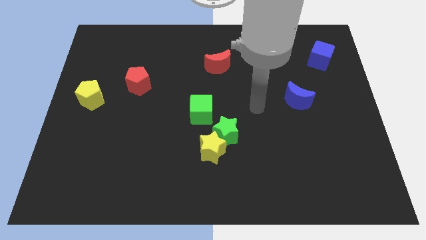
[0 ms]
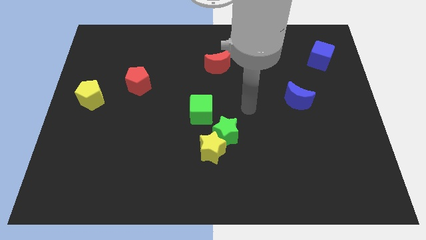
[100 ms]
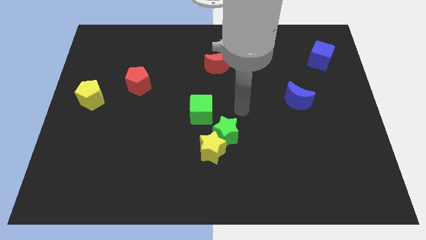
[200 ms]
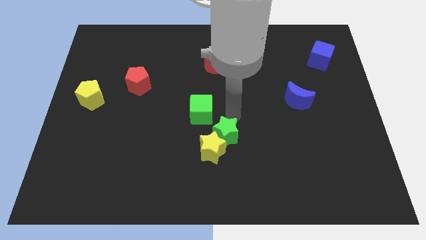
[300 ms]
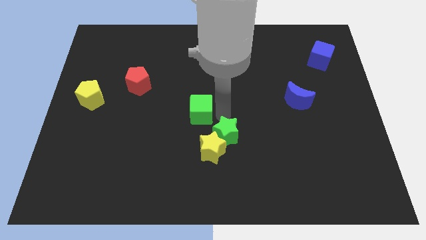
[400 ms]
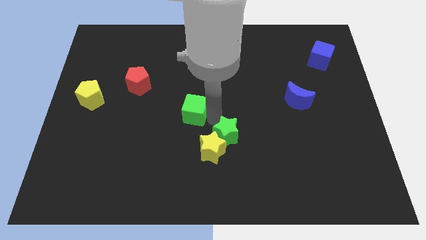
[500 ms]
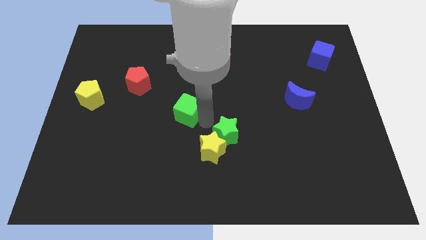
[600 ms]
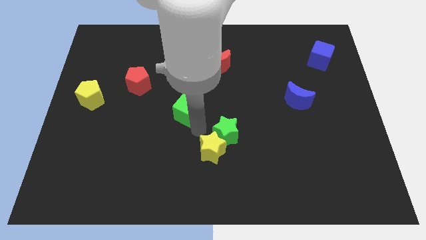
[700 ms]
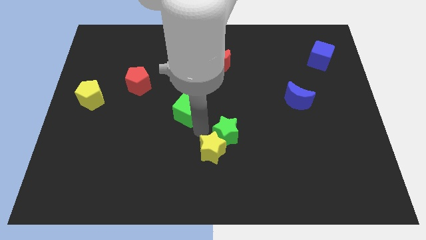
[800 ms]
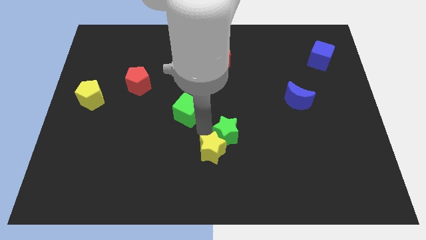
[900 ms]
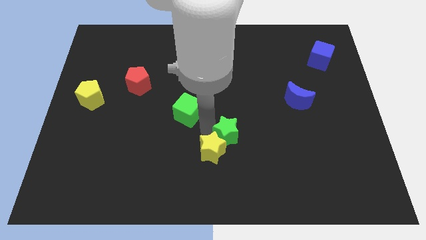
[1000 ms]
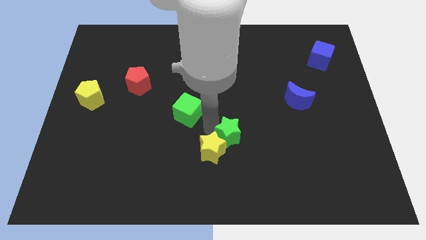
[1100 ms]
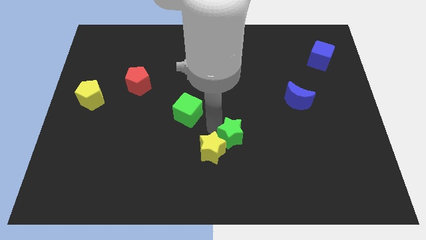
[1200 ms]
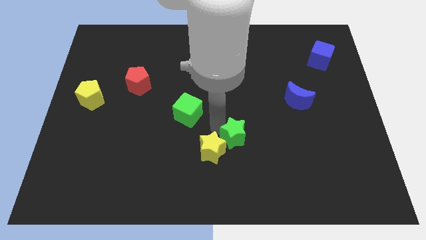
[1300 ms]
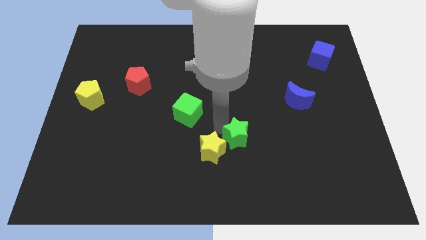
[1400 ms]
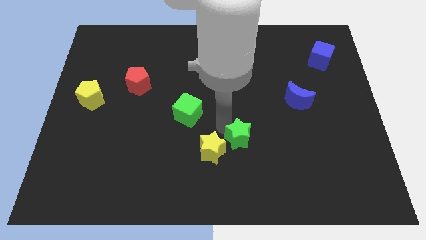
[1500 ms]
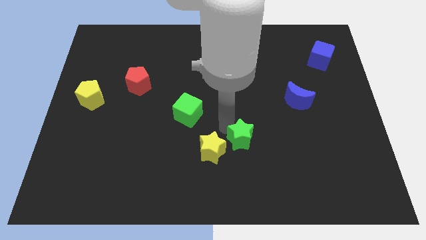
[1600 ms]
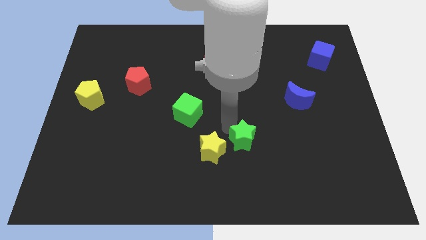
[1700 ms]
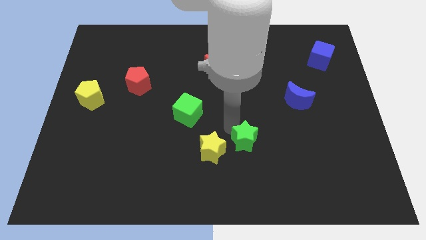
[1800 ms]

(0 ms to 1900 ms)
move the green star away from the yellow star and green cube

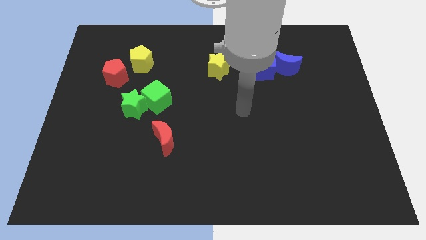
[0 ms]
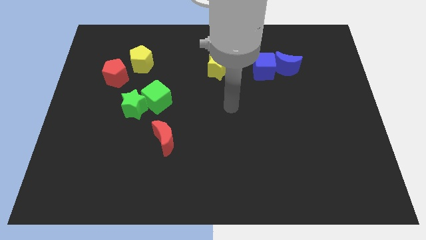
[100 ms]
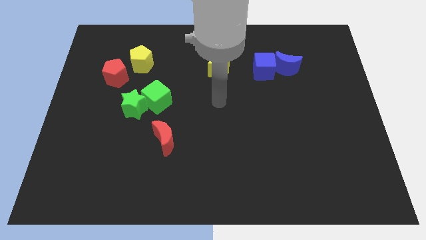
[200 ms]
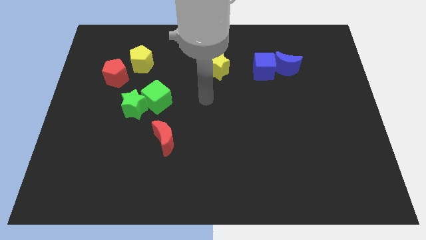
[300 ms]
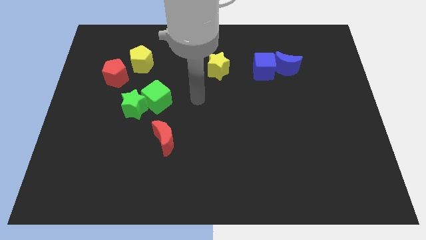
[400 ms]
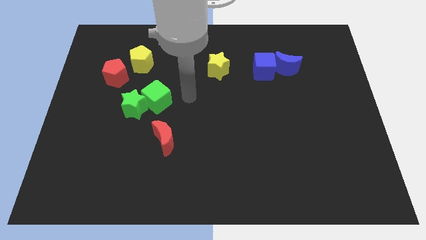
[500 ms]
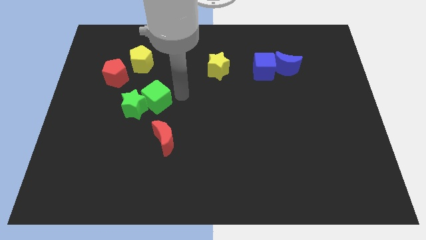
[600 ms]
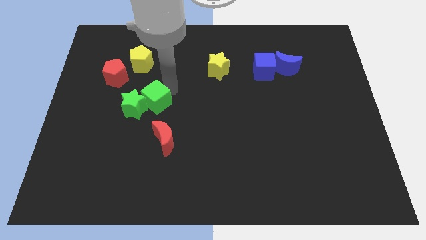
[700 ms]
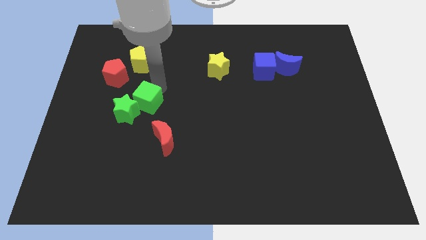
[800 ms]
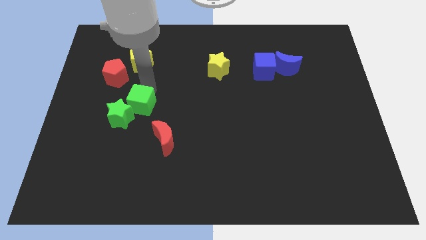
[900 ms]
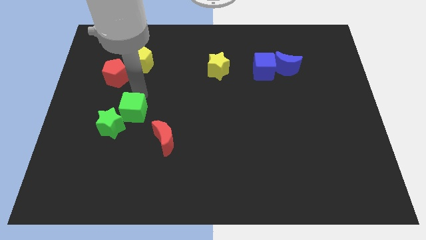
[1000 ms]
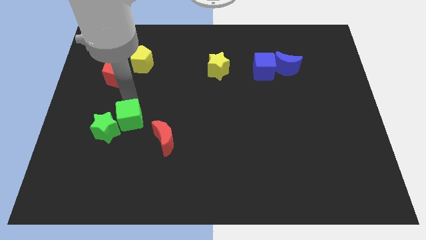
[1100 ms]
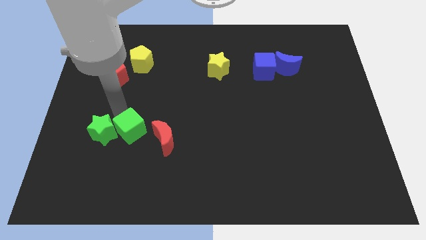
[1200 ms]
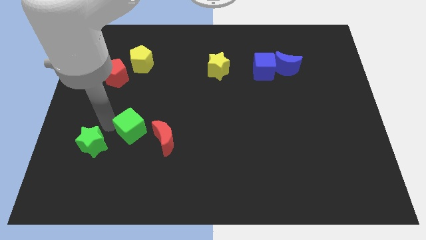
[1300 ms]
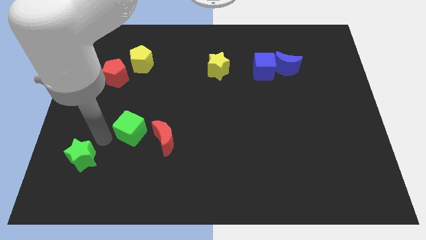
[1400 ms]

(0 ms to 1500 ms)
pull the green cube apart from the green star

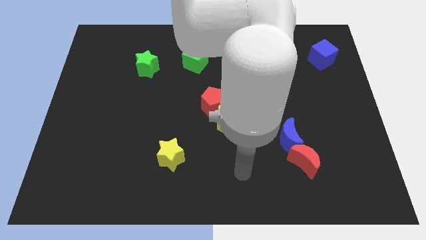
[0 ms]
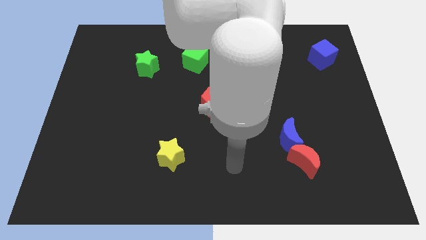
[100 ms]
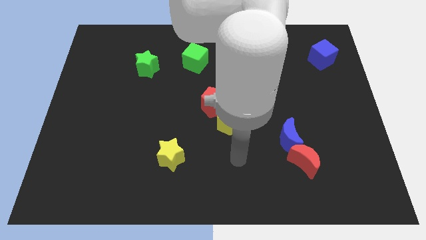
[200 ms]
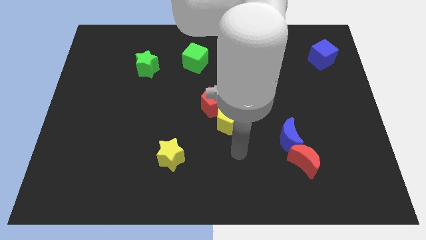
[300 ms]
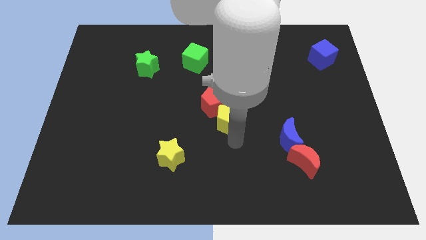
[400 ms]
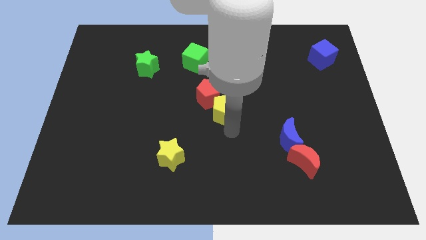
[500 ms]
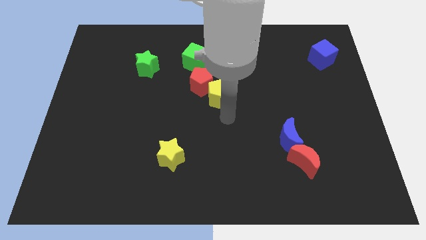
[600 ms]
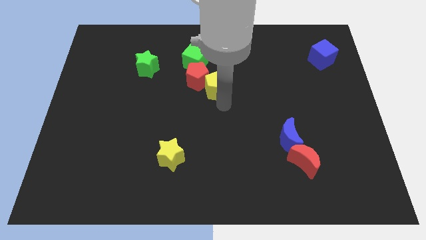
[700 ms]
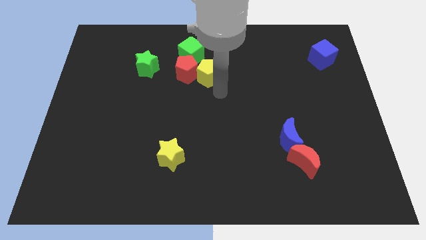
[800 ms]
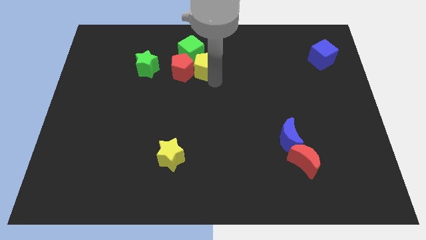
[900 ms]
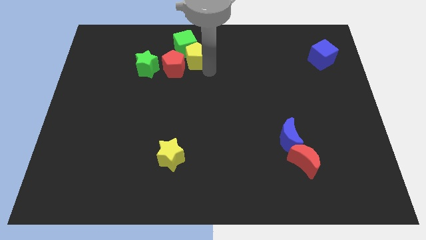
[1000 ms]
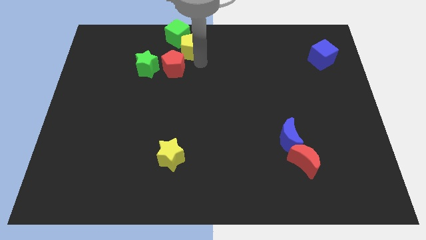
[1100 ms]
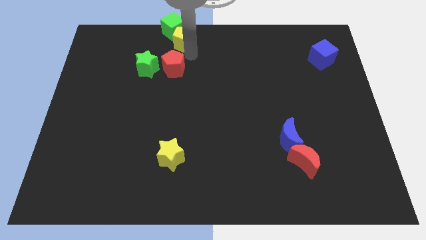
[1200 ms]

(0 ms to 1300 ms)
pull the red pentagon apart from the yellow pentagon

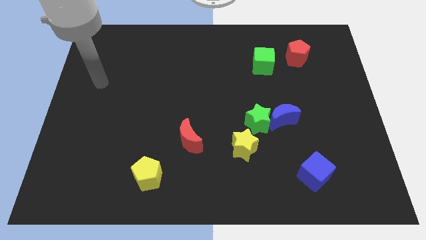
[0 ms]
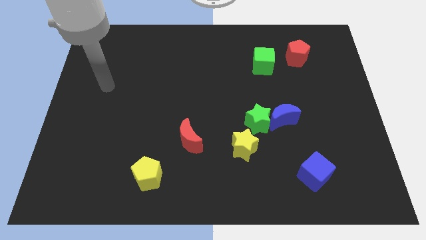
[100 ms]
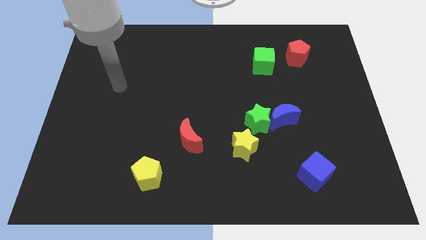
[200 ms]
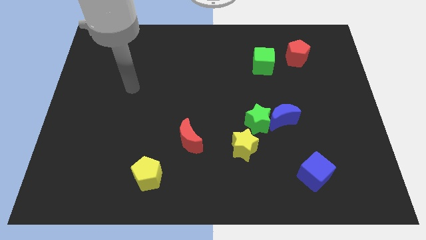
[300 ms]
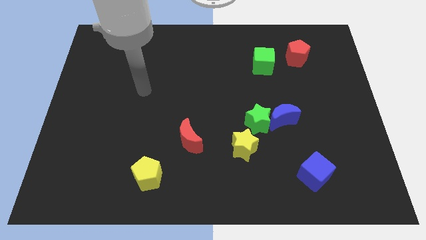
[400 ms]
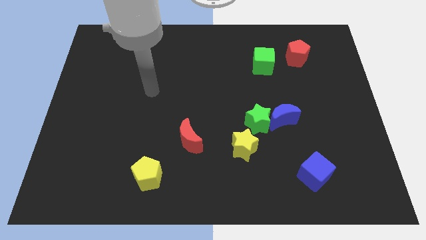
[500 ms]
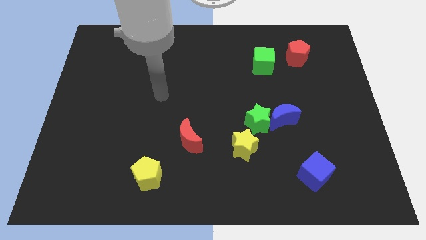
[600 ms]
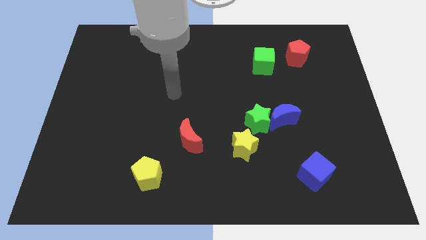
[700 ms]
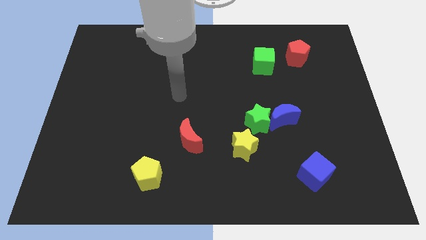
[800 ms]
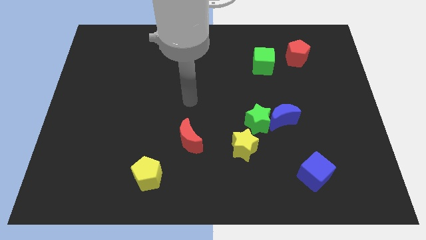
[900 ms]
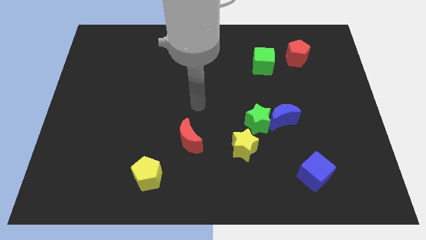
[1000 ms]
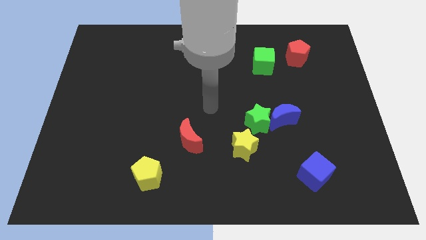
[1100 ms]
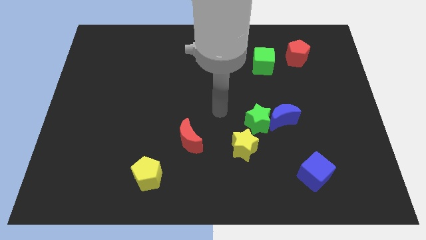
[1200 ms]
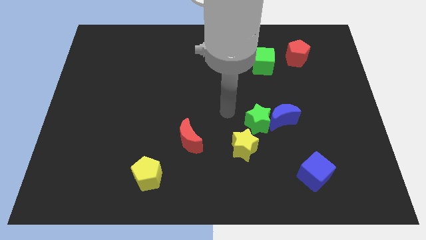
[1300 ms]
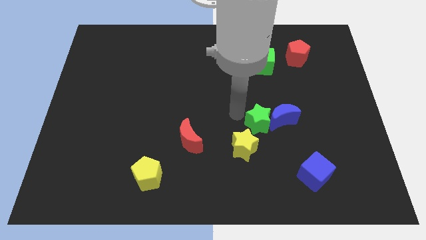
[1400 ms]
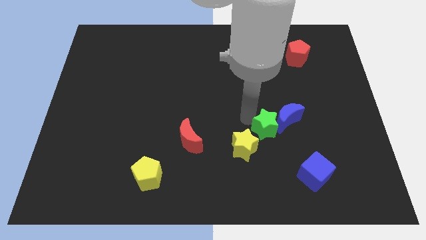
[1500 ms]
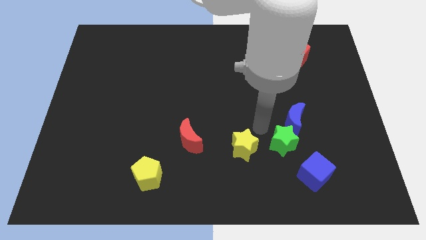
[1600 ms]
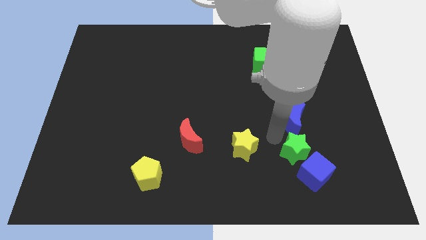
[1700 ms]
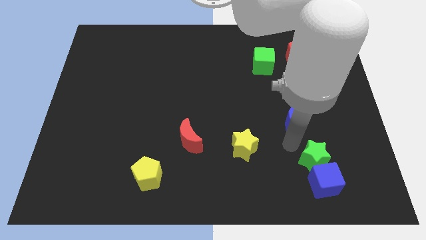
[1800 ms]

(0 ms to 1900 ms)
separate the blue moon from the green star

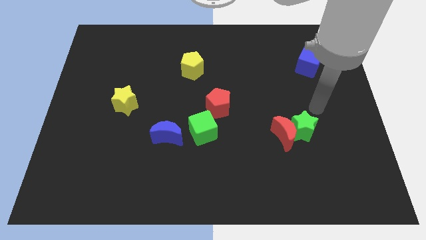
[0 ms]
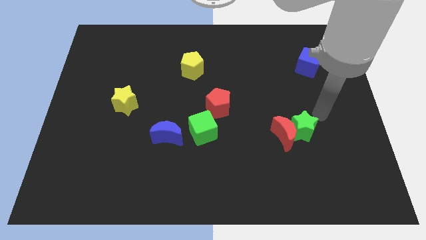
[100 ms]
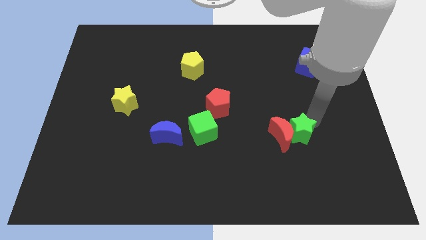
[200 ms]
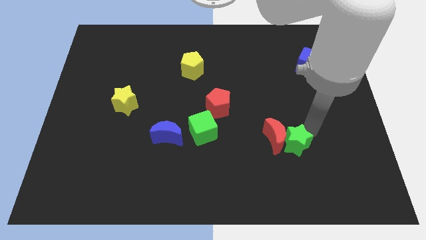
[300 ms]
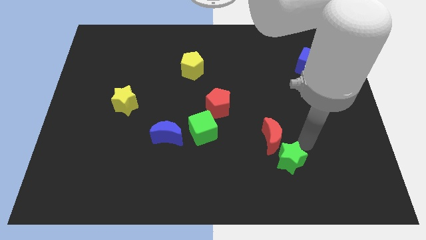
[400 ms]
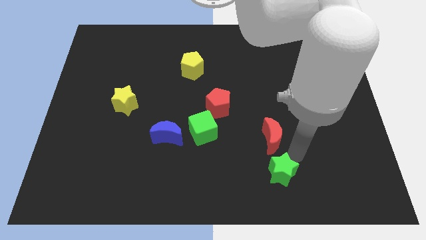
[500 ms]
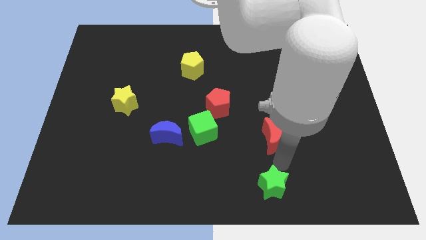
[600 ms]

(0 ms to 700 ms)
pull the red moon apart from the green star

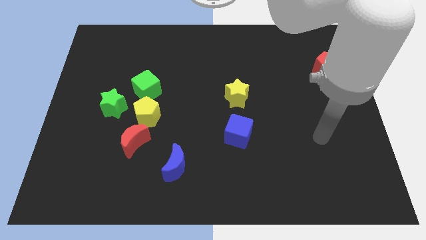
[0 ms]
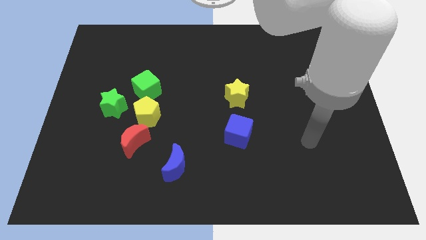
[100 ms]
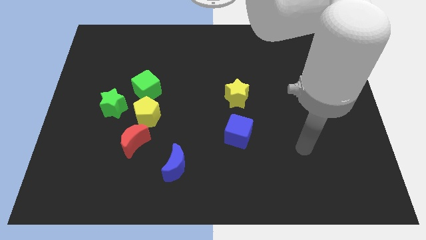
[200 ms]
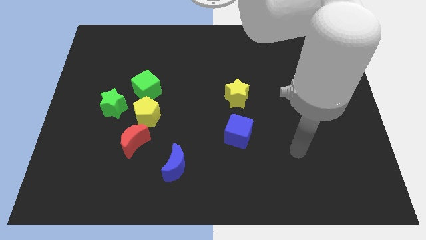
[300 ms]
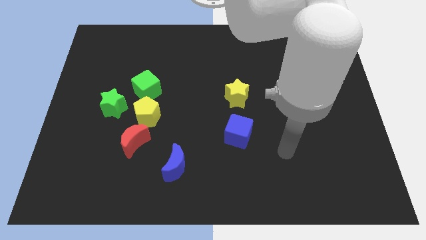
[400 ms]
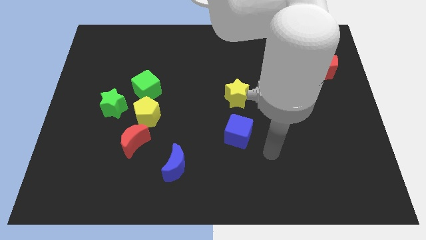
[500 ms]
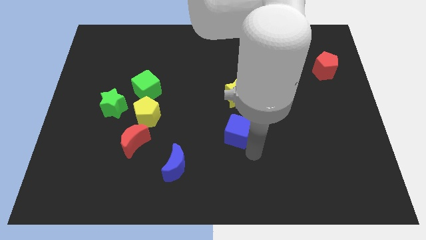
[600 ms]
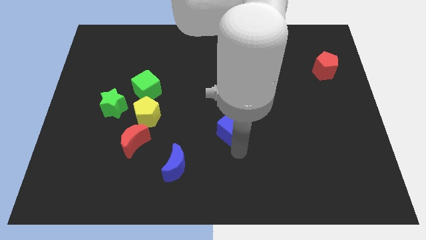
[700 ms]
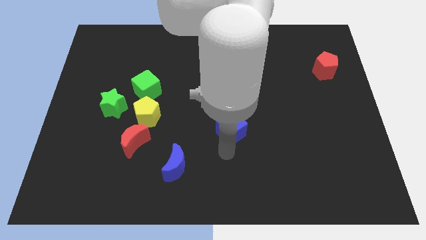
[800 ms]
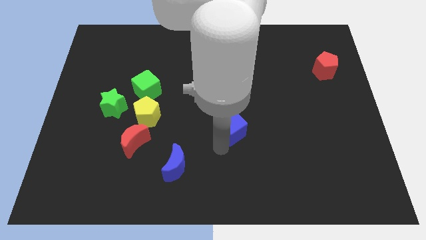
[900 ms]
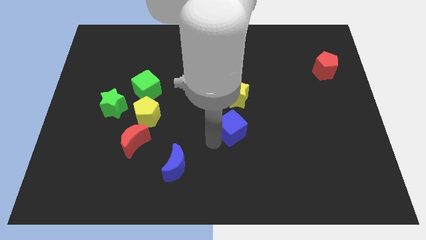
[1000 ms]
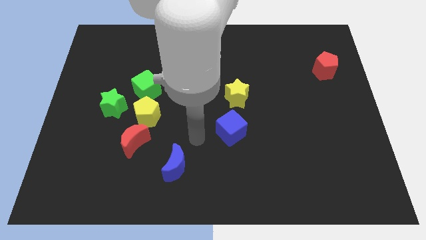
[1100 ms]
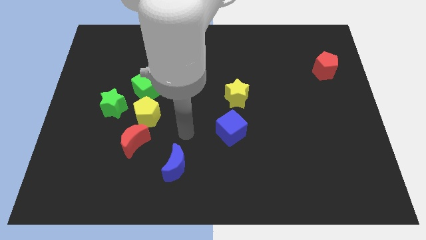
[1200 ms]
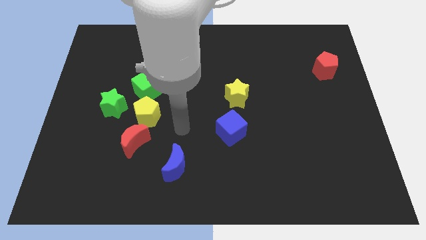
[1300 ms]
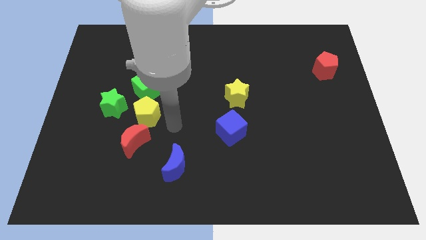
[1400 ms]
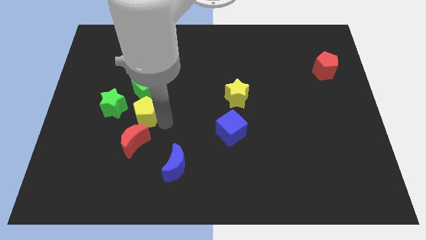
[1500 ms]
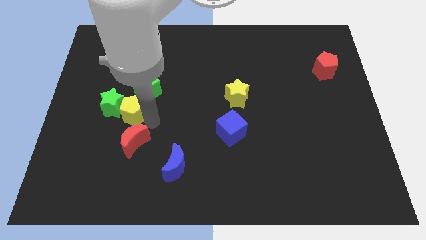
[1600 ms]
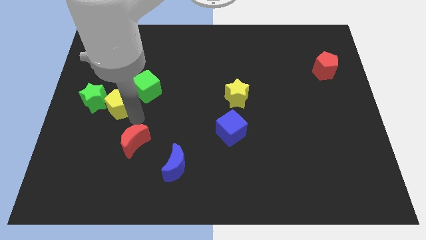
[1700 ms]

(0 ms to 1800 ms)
move the red moon away from the yellow pentagon

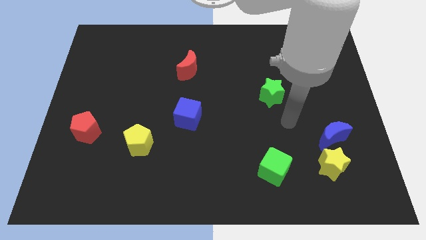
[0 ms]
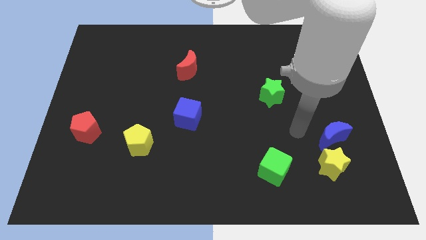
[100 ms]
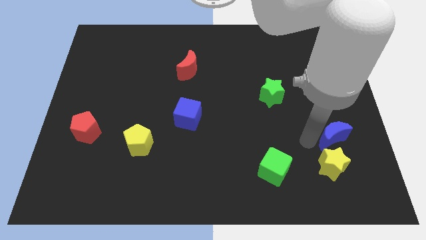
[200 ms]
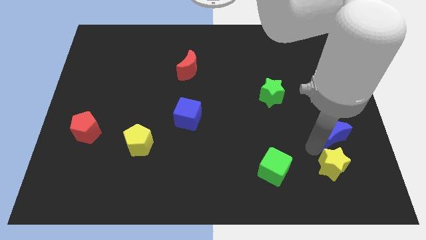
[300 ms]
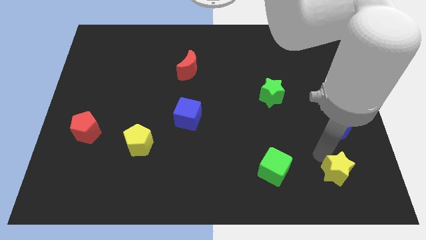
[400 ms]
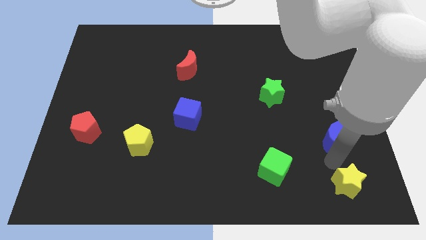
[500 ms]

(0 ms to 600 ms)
pull the blue moon apart from the yellow star
